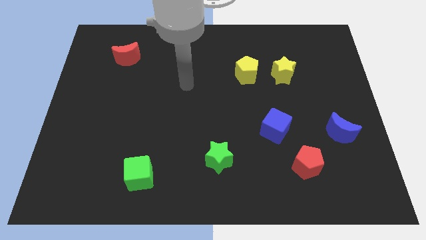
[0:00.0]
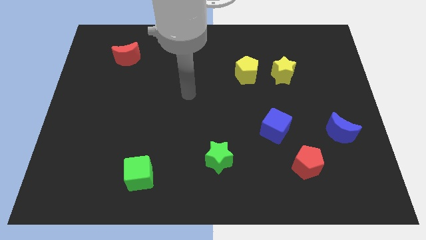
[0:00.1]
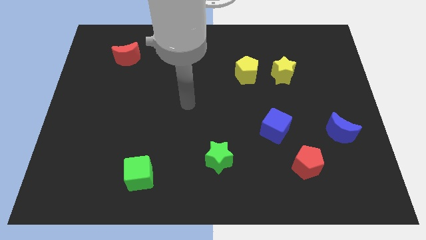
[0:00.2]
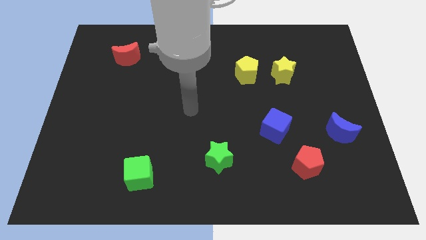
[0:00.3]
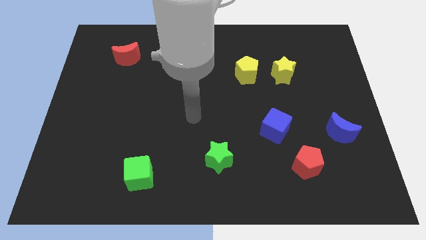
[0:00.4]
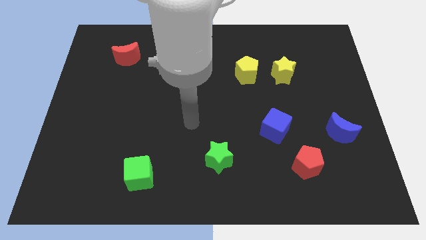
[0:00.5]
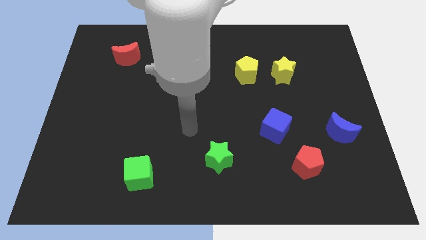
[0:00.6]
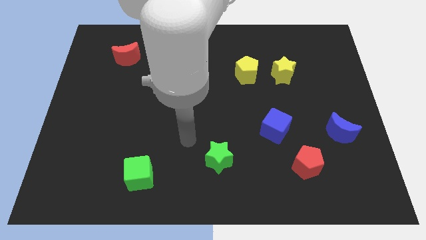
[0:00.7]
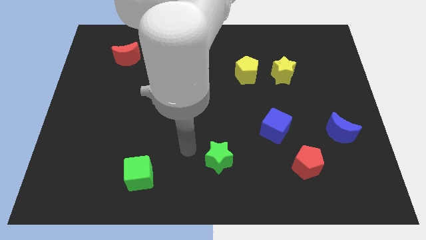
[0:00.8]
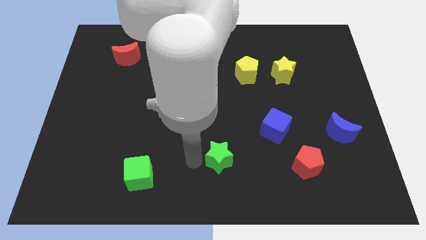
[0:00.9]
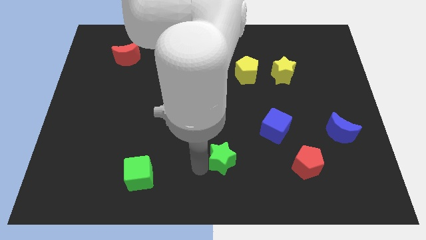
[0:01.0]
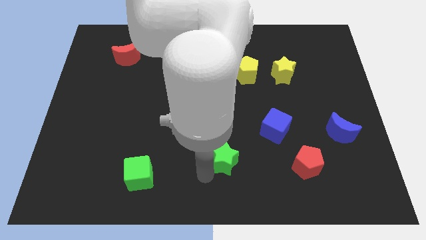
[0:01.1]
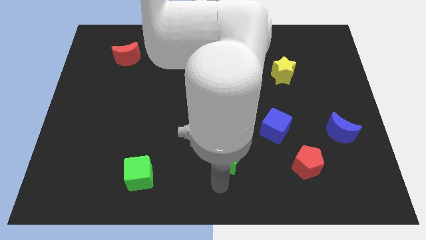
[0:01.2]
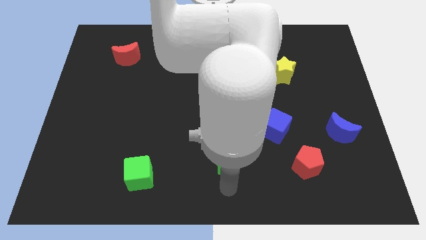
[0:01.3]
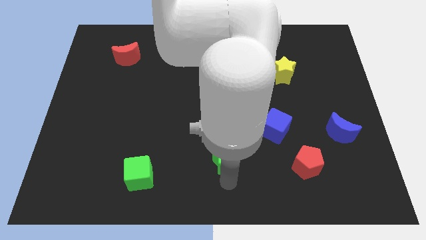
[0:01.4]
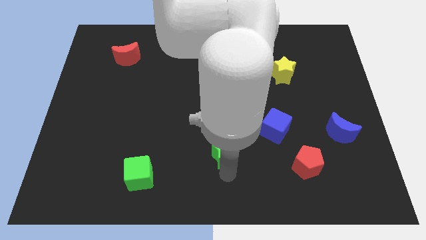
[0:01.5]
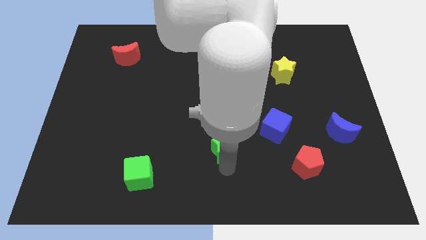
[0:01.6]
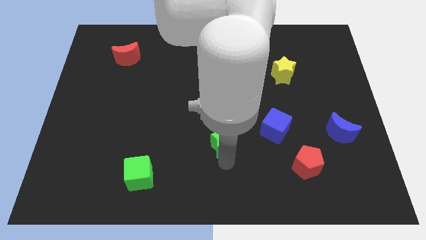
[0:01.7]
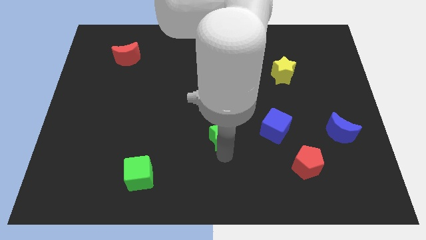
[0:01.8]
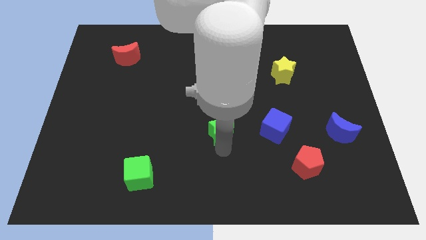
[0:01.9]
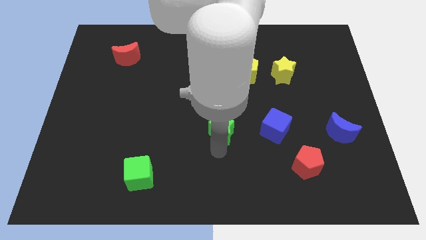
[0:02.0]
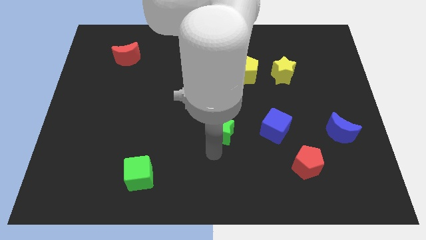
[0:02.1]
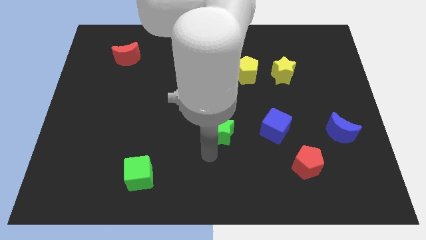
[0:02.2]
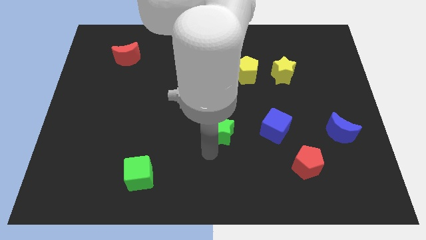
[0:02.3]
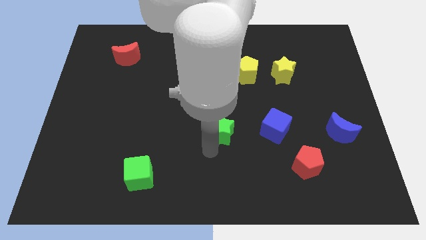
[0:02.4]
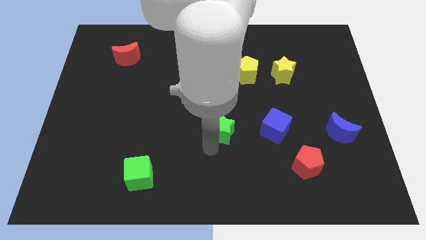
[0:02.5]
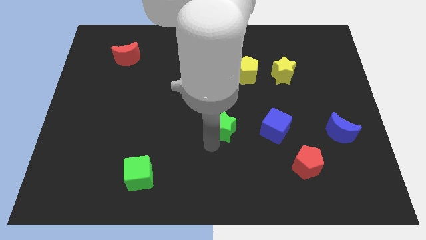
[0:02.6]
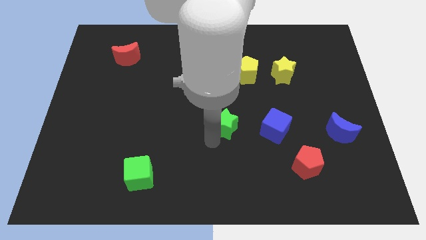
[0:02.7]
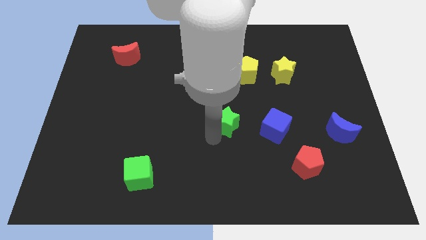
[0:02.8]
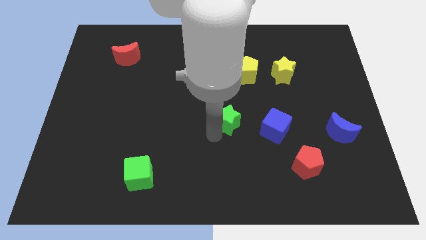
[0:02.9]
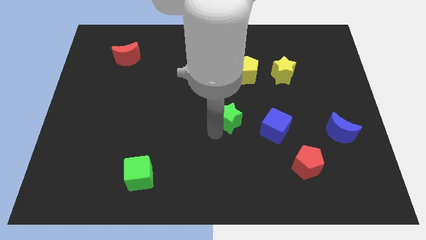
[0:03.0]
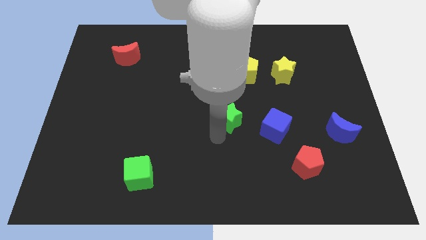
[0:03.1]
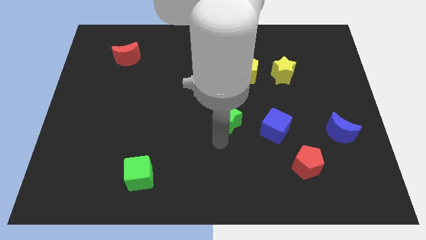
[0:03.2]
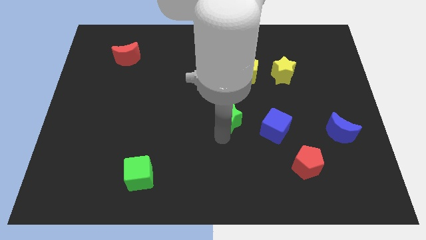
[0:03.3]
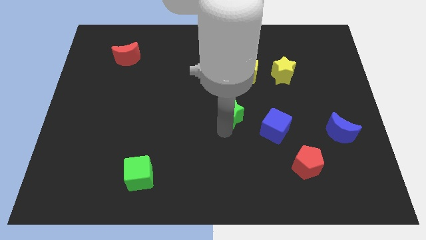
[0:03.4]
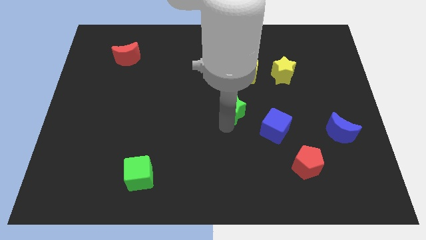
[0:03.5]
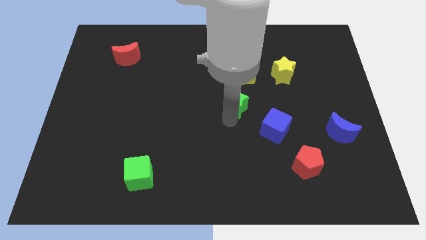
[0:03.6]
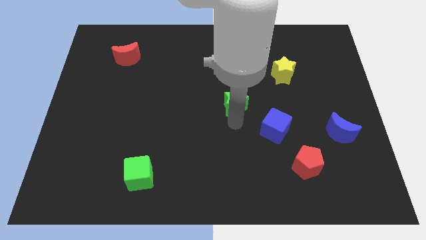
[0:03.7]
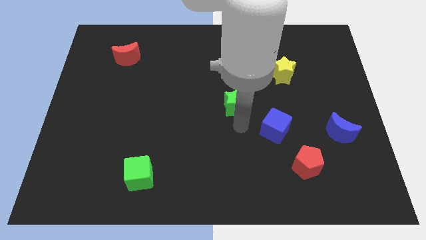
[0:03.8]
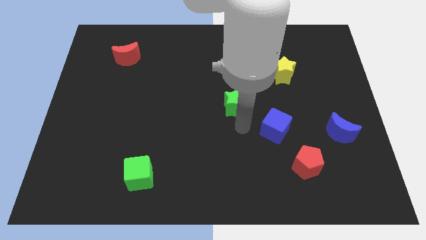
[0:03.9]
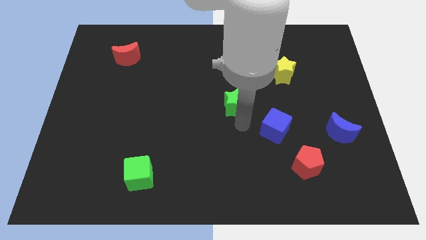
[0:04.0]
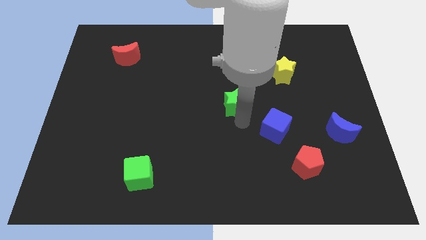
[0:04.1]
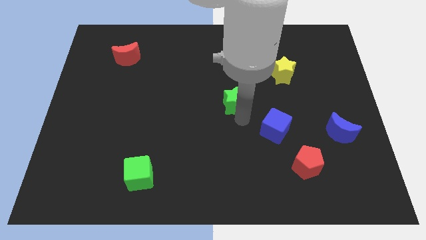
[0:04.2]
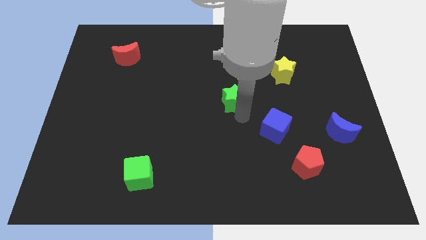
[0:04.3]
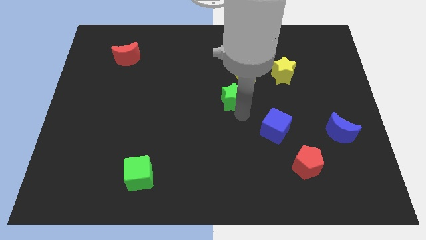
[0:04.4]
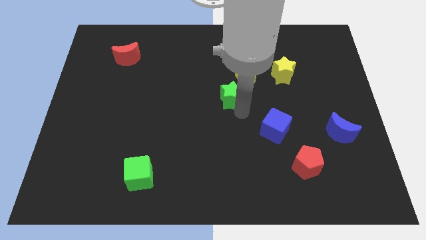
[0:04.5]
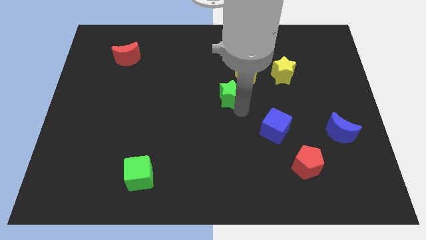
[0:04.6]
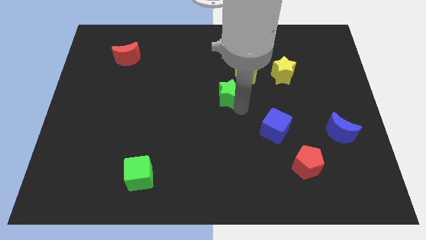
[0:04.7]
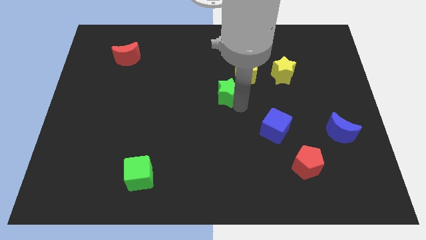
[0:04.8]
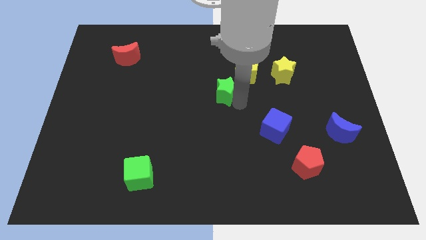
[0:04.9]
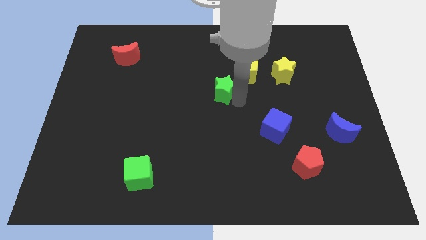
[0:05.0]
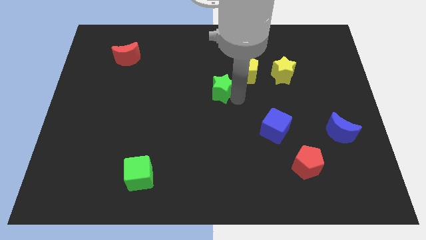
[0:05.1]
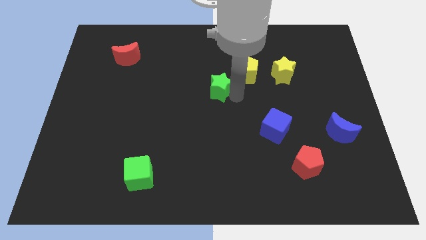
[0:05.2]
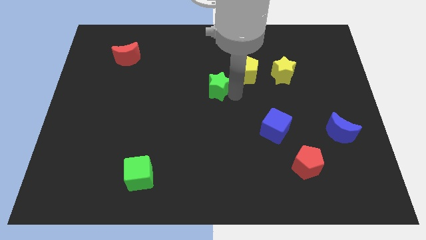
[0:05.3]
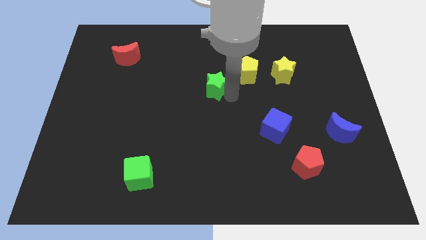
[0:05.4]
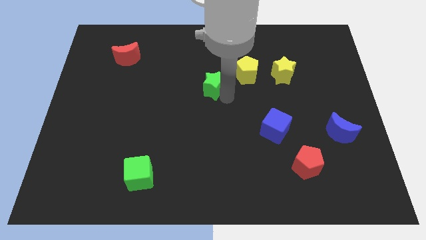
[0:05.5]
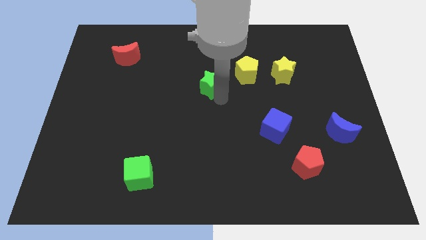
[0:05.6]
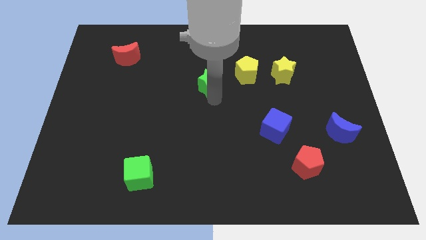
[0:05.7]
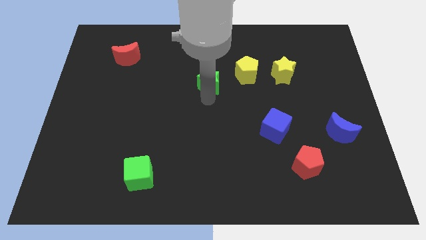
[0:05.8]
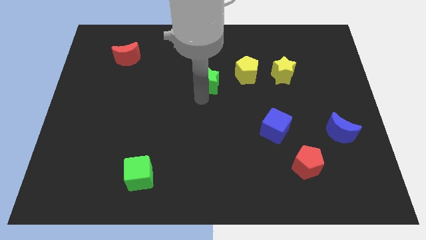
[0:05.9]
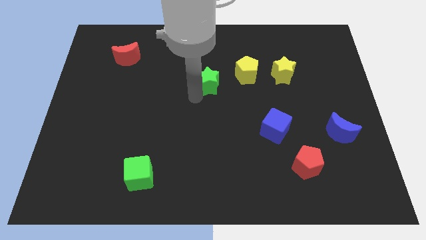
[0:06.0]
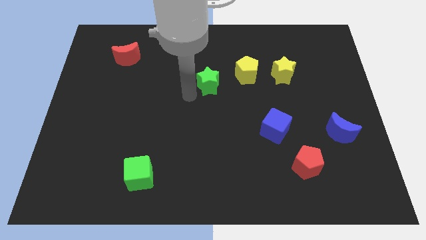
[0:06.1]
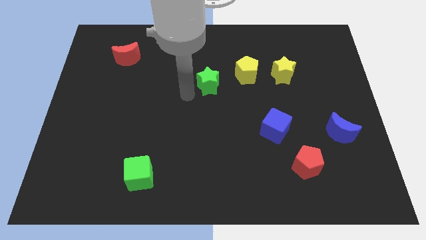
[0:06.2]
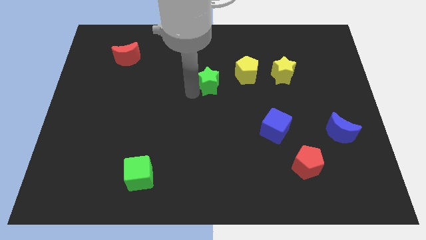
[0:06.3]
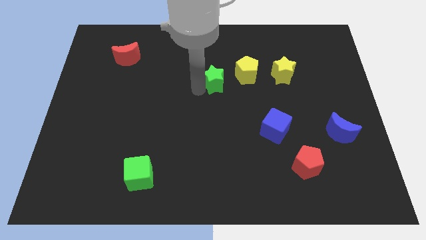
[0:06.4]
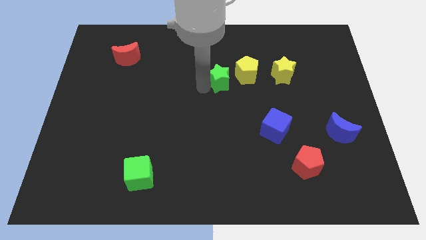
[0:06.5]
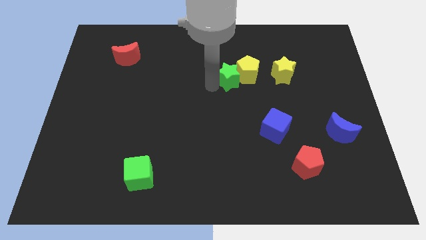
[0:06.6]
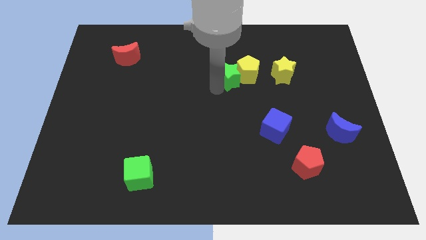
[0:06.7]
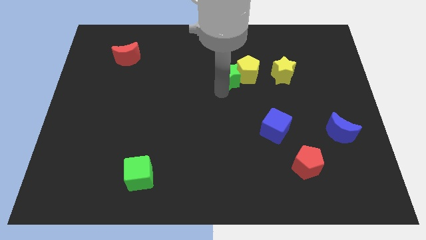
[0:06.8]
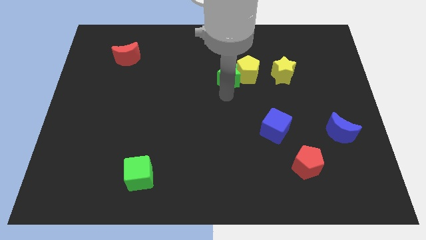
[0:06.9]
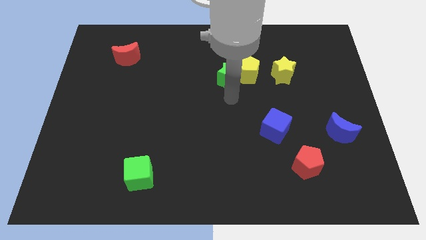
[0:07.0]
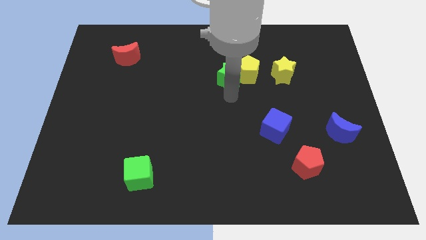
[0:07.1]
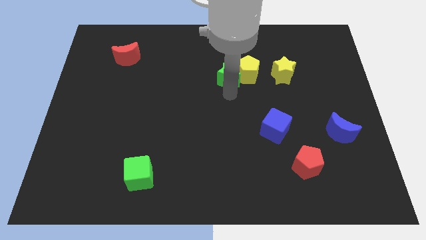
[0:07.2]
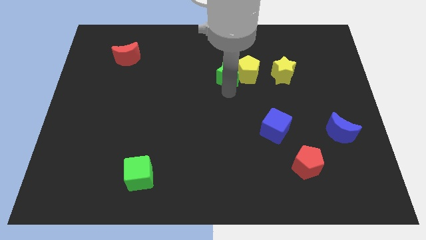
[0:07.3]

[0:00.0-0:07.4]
move the green star to the top left of the yellow pentagon
